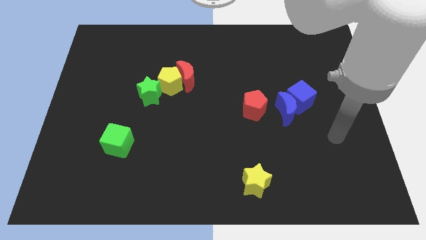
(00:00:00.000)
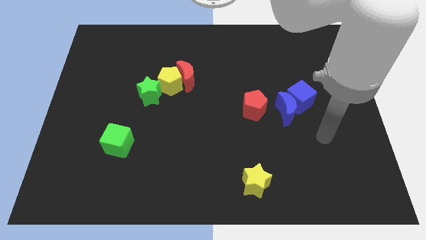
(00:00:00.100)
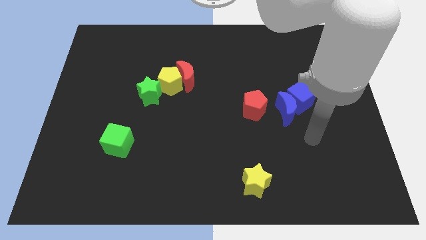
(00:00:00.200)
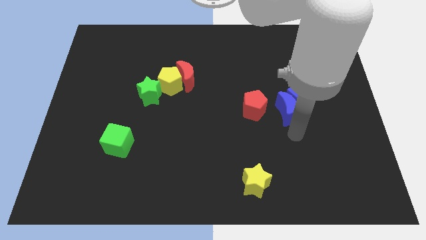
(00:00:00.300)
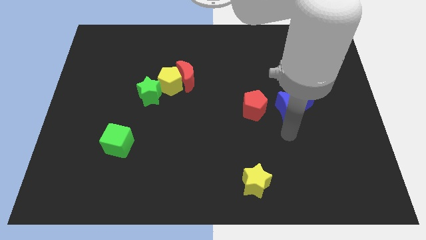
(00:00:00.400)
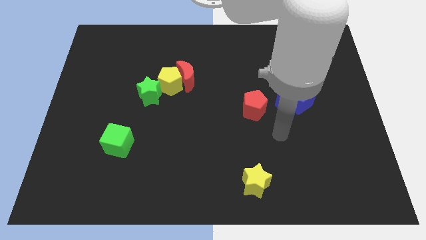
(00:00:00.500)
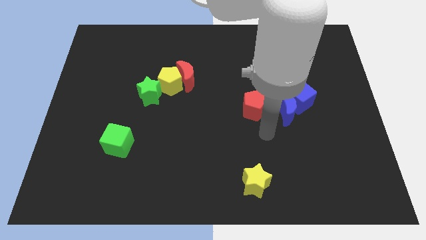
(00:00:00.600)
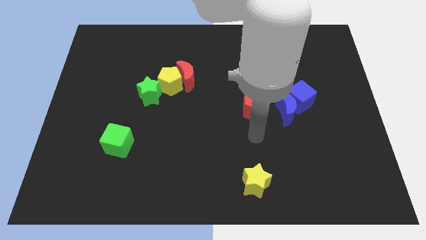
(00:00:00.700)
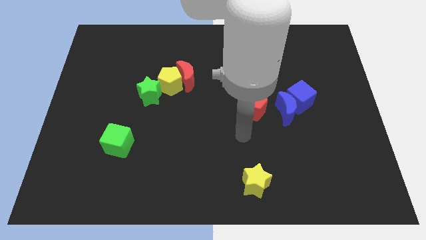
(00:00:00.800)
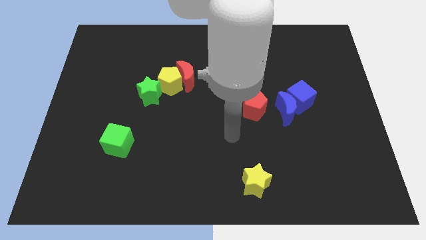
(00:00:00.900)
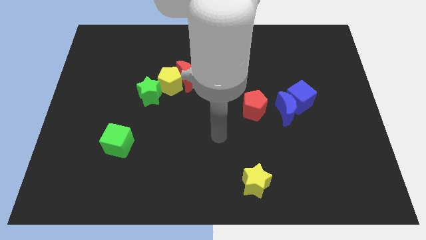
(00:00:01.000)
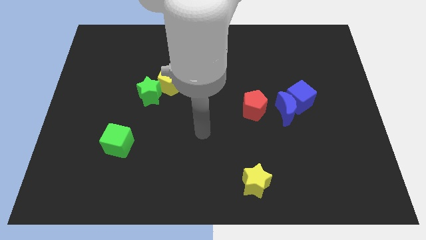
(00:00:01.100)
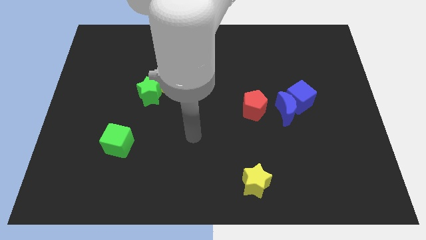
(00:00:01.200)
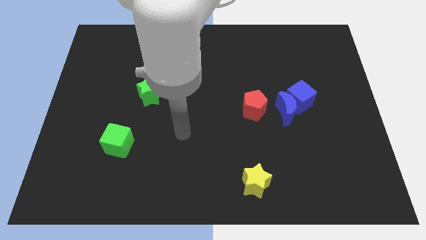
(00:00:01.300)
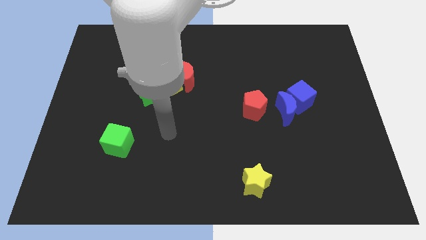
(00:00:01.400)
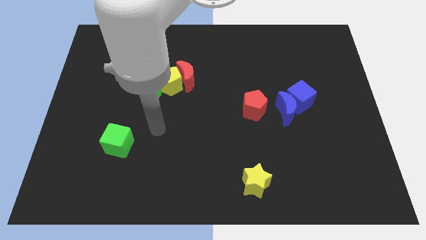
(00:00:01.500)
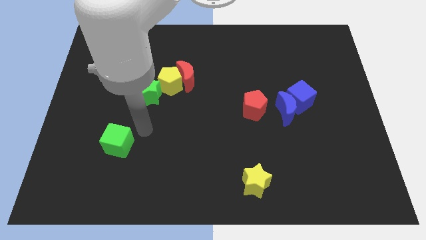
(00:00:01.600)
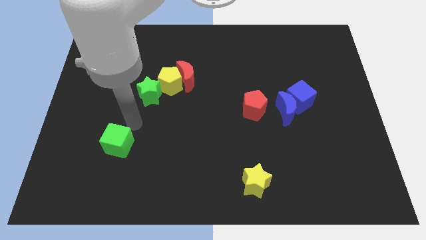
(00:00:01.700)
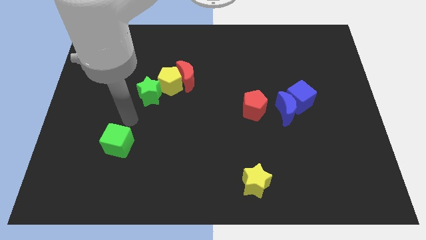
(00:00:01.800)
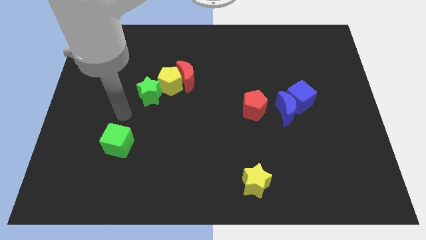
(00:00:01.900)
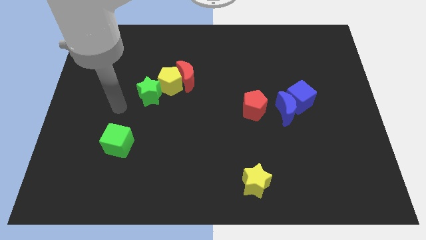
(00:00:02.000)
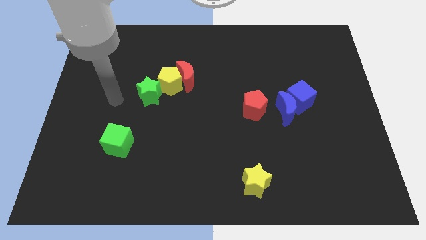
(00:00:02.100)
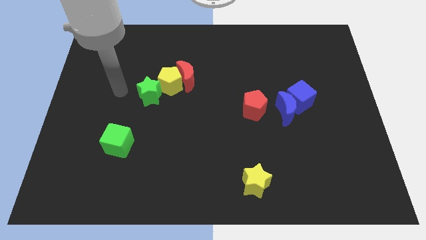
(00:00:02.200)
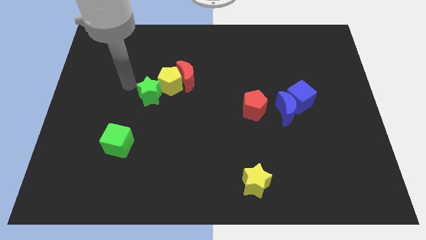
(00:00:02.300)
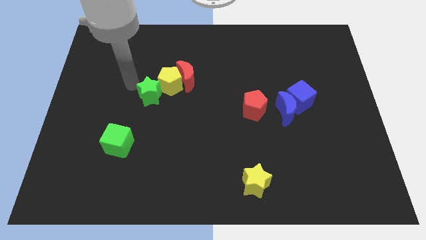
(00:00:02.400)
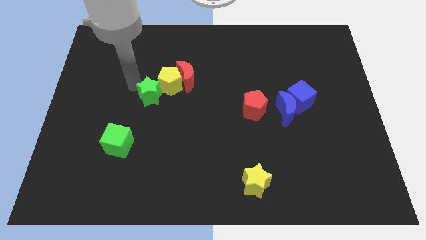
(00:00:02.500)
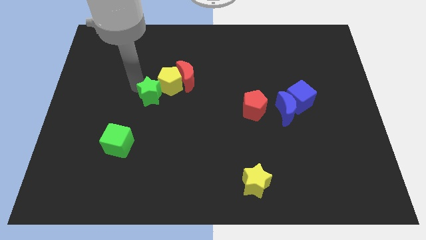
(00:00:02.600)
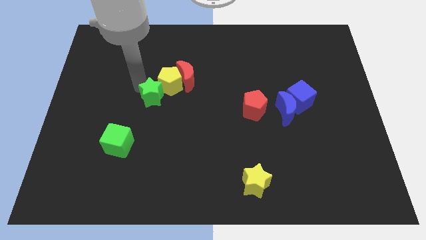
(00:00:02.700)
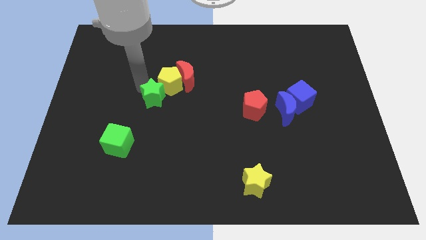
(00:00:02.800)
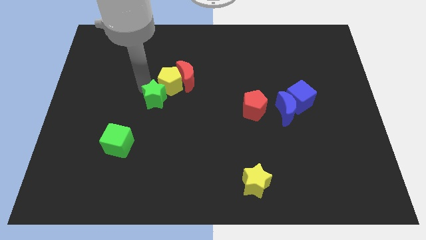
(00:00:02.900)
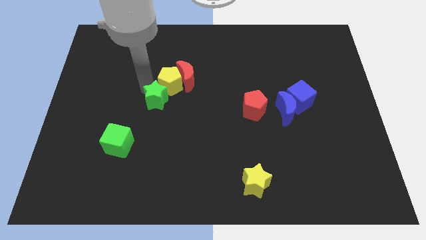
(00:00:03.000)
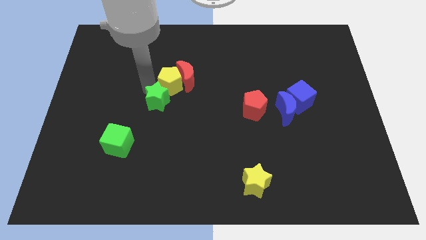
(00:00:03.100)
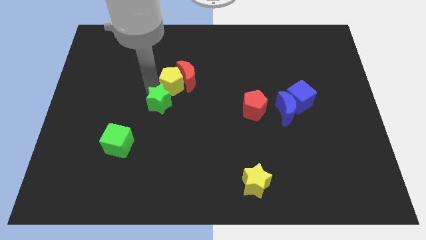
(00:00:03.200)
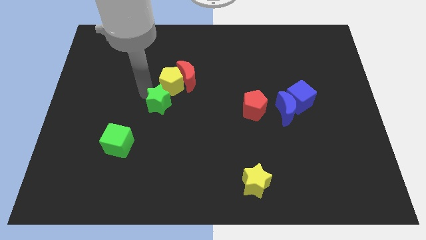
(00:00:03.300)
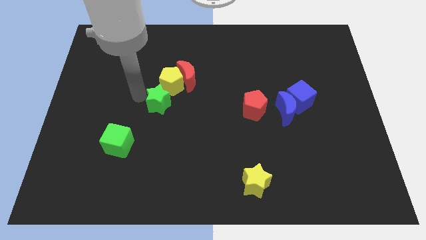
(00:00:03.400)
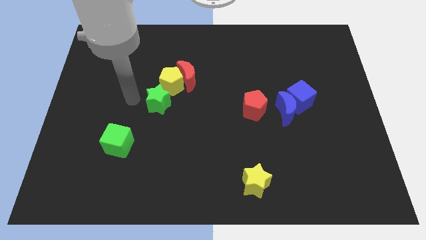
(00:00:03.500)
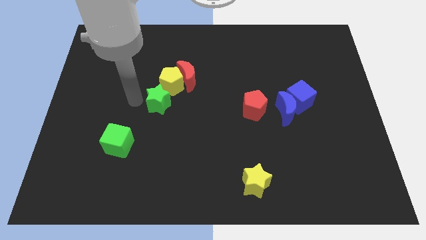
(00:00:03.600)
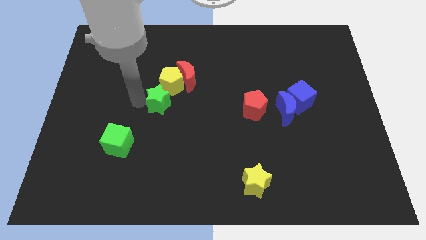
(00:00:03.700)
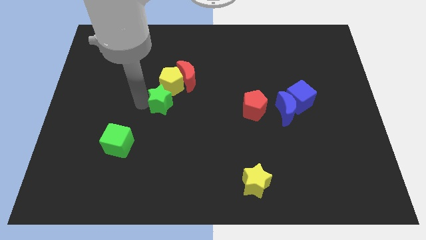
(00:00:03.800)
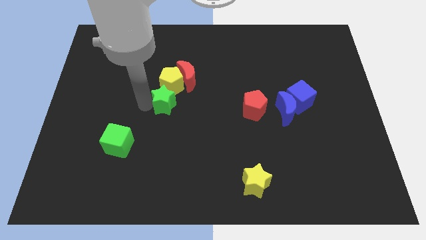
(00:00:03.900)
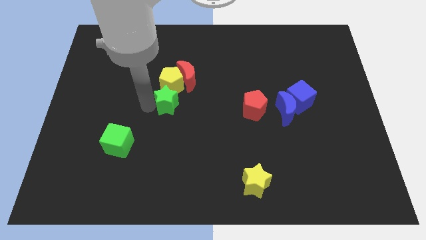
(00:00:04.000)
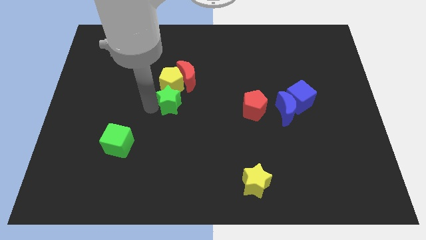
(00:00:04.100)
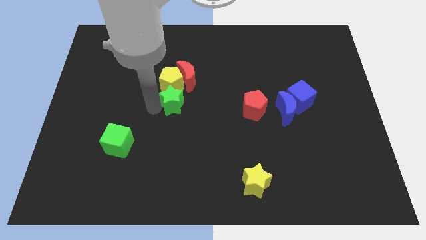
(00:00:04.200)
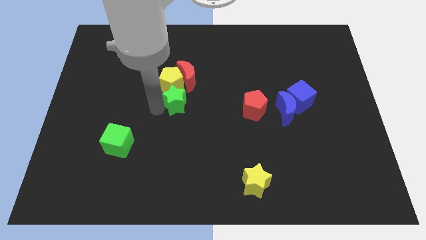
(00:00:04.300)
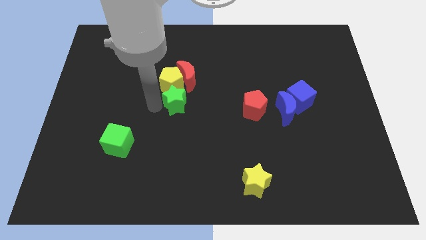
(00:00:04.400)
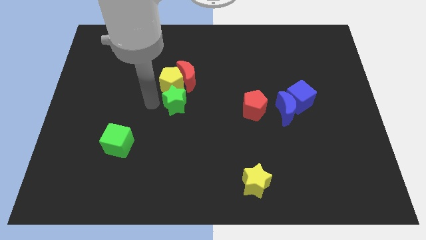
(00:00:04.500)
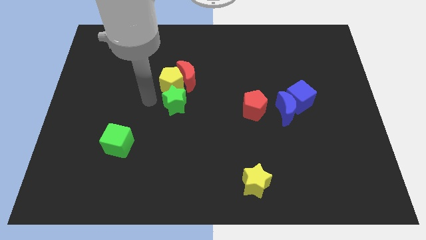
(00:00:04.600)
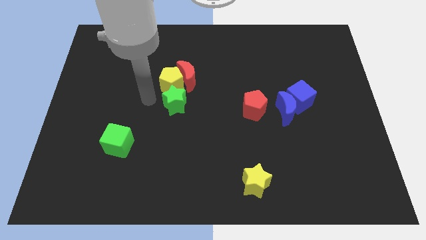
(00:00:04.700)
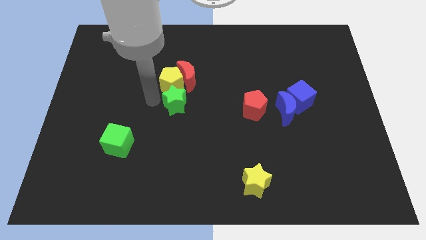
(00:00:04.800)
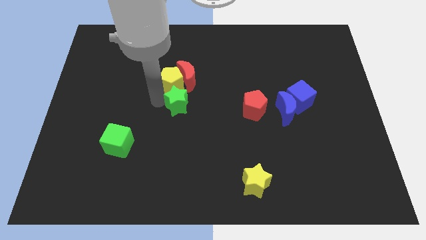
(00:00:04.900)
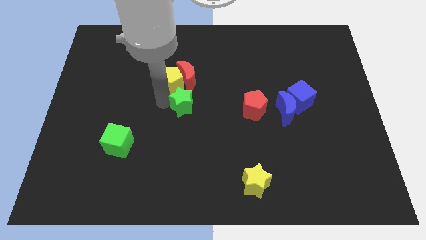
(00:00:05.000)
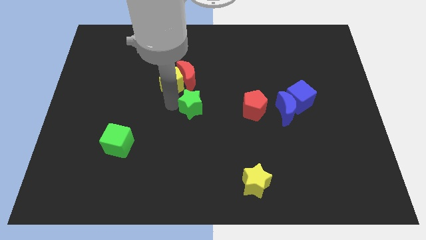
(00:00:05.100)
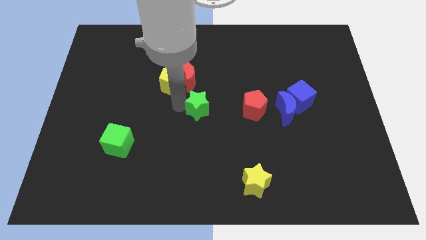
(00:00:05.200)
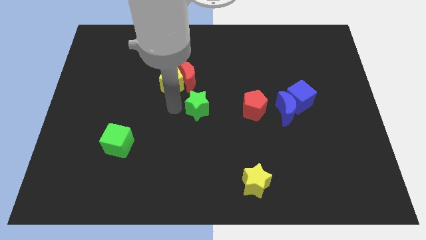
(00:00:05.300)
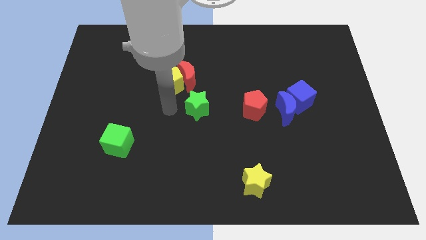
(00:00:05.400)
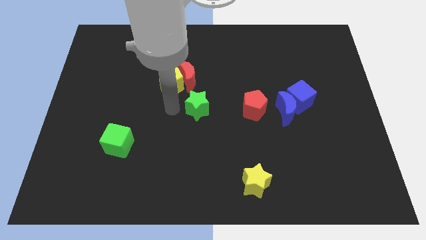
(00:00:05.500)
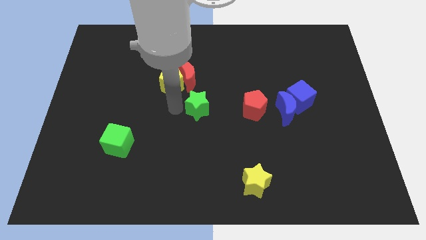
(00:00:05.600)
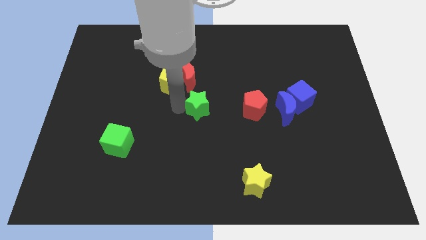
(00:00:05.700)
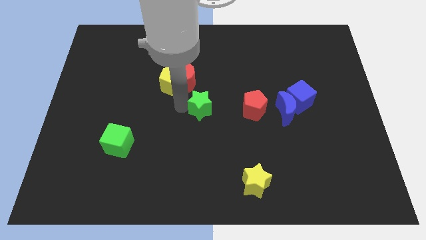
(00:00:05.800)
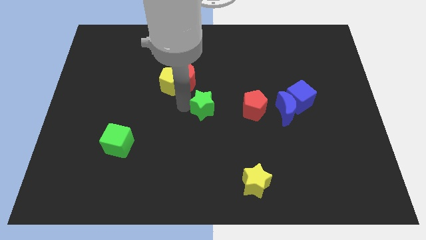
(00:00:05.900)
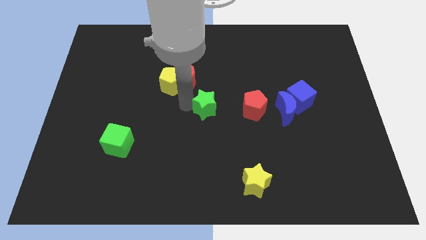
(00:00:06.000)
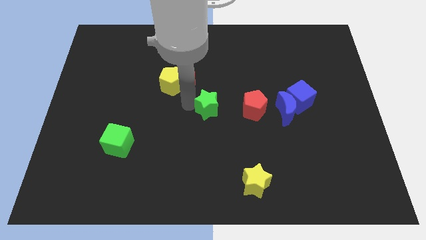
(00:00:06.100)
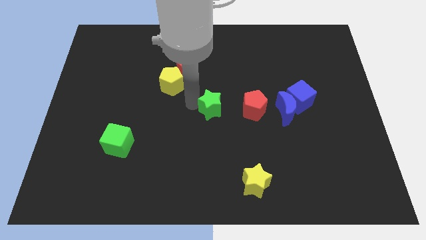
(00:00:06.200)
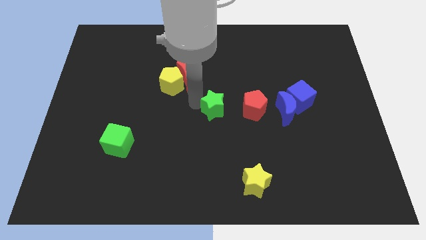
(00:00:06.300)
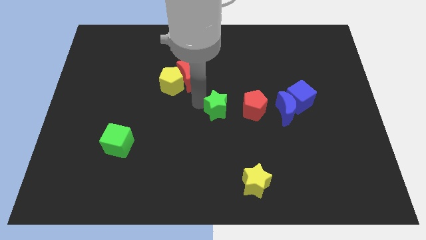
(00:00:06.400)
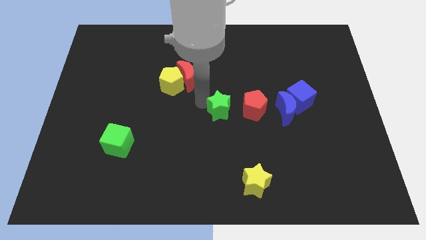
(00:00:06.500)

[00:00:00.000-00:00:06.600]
put the green star left of the blue moon

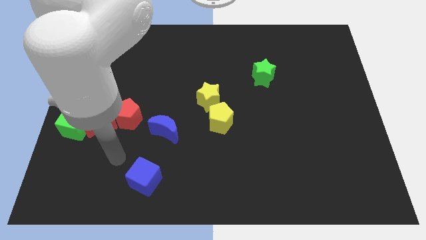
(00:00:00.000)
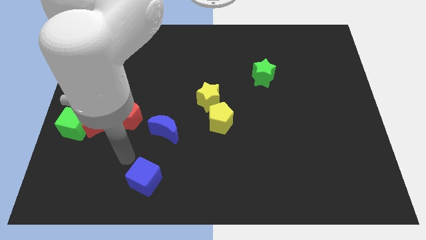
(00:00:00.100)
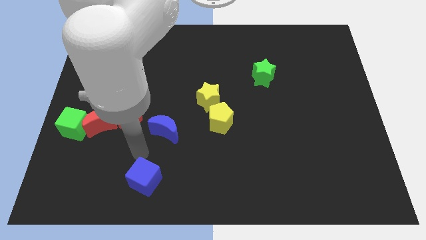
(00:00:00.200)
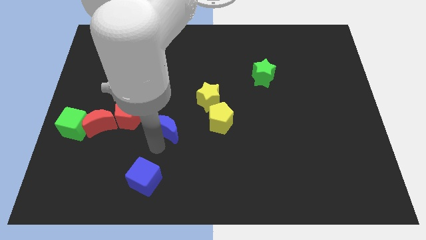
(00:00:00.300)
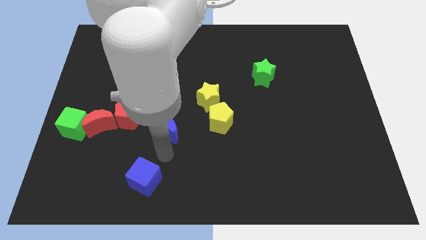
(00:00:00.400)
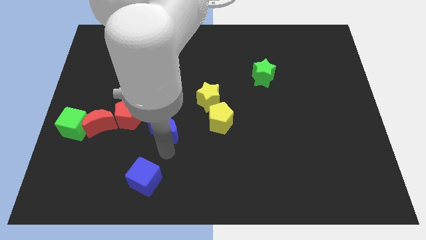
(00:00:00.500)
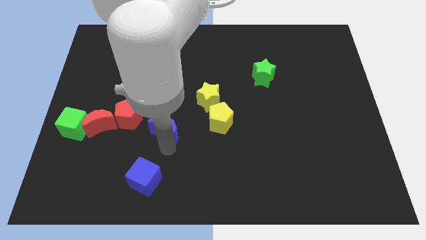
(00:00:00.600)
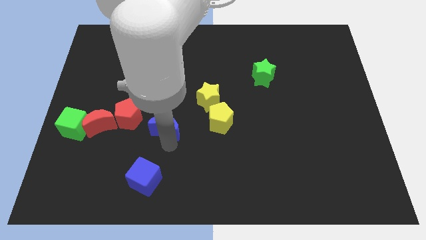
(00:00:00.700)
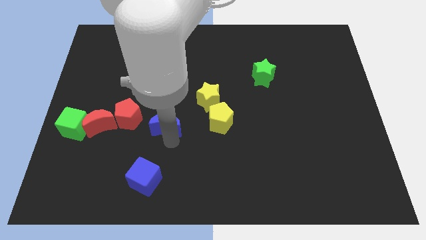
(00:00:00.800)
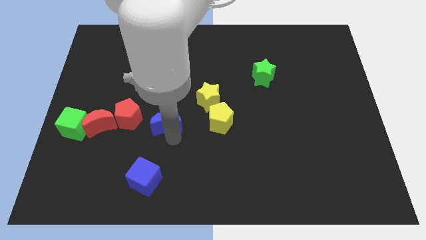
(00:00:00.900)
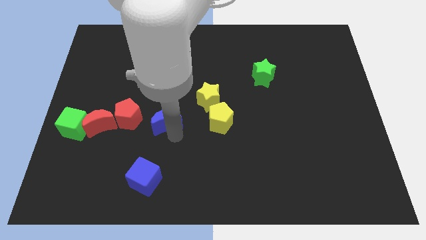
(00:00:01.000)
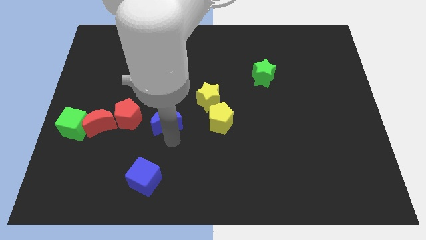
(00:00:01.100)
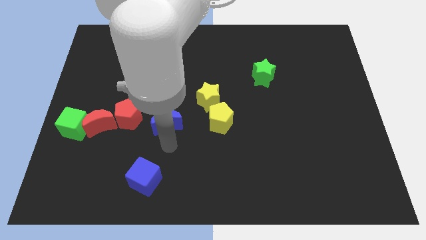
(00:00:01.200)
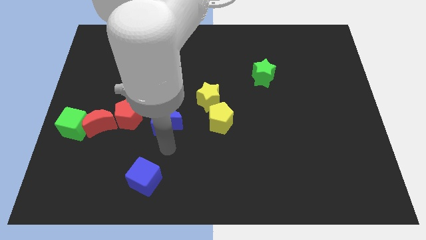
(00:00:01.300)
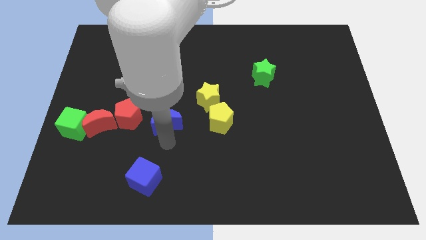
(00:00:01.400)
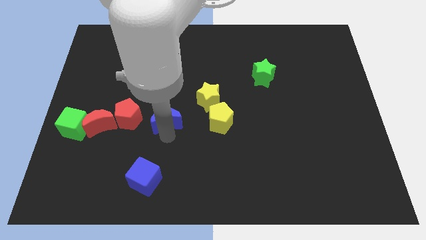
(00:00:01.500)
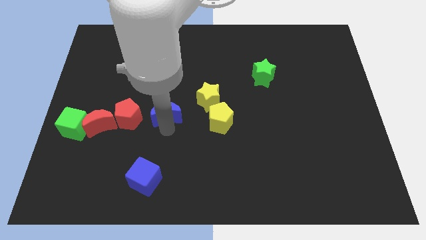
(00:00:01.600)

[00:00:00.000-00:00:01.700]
move the blue moon left of the yellow star
